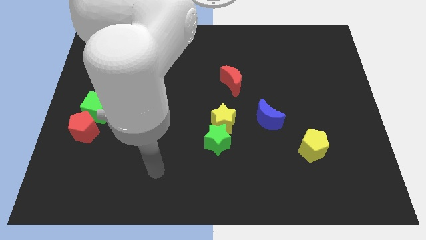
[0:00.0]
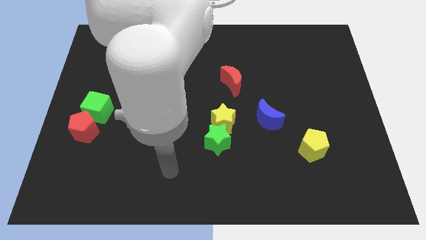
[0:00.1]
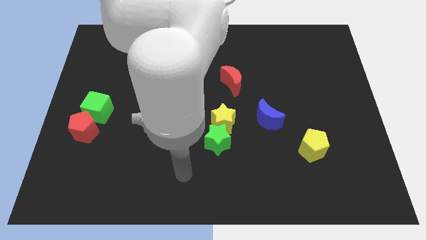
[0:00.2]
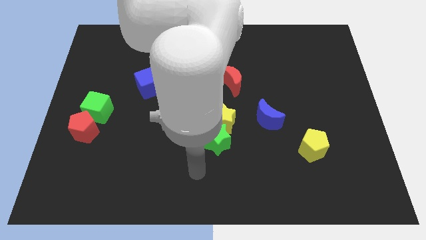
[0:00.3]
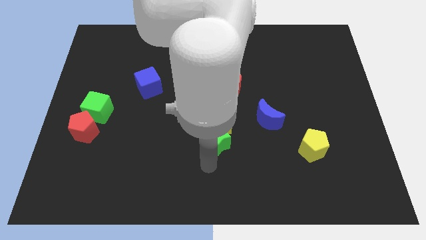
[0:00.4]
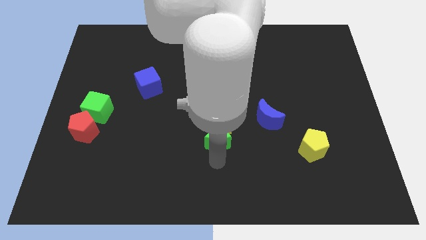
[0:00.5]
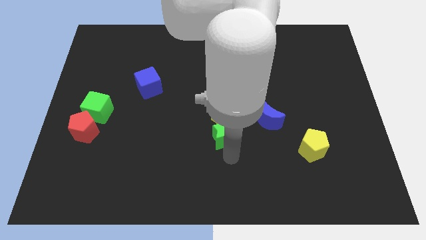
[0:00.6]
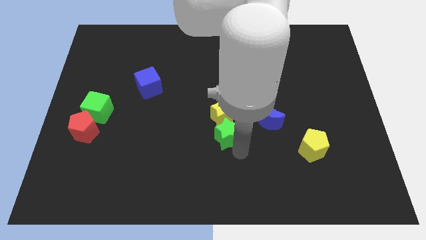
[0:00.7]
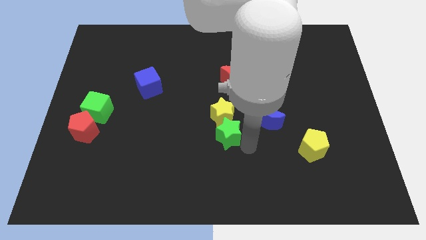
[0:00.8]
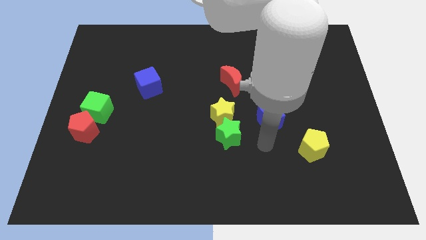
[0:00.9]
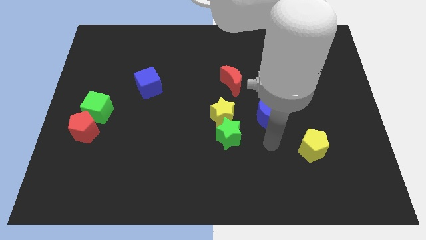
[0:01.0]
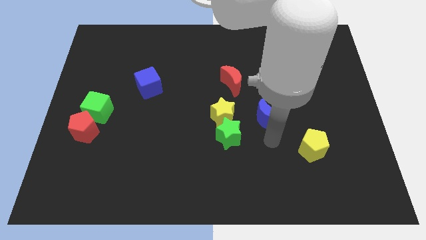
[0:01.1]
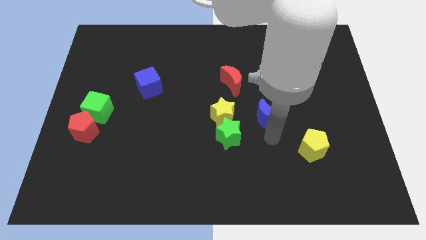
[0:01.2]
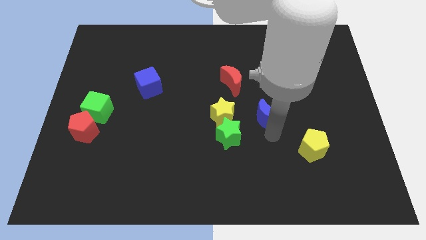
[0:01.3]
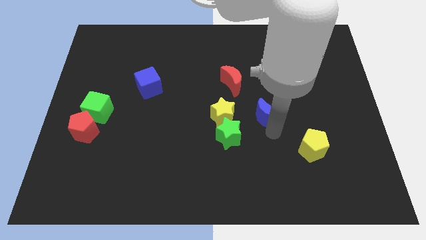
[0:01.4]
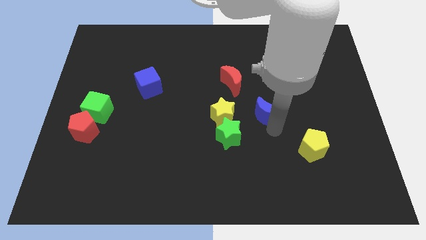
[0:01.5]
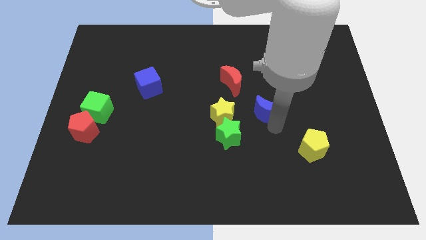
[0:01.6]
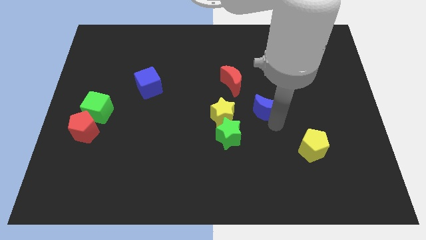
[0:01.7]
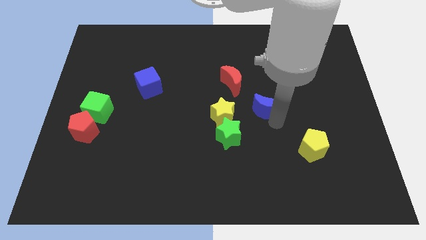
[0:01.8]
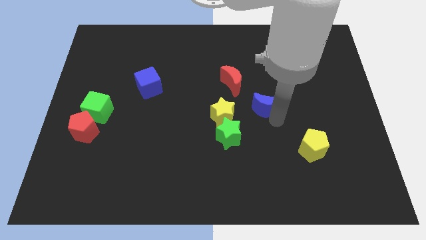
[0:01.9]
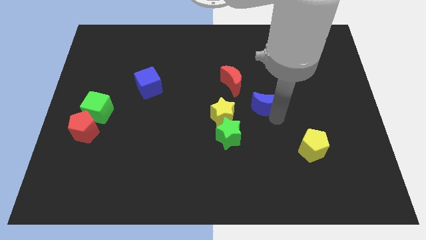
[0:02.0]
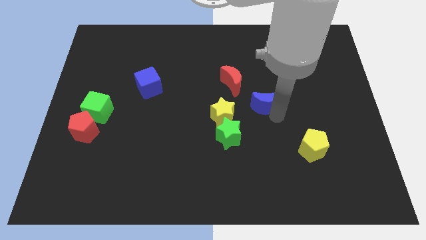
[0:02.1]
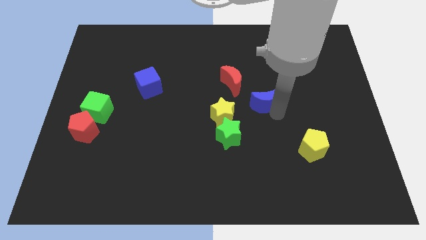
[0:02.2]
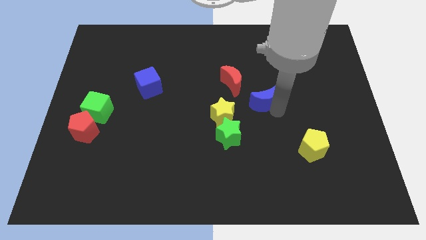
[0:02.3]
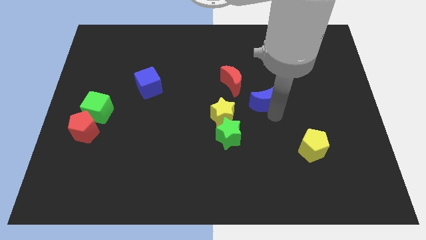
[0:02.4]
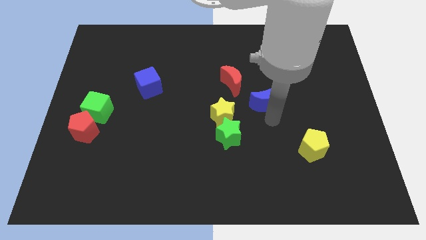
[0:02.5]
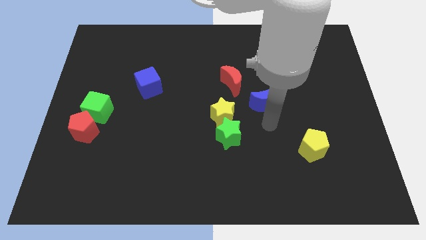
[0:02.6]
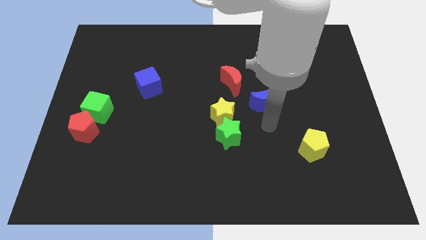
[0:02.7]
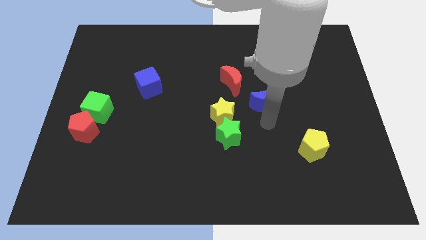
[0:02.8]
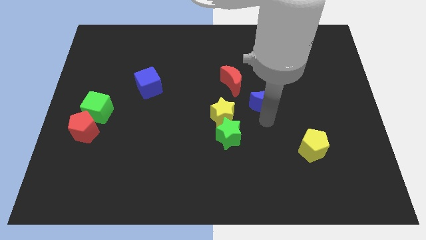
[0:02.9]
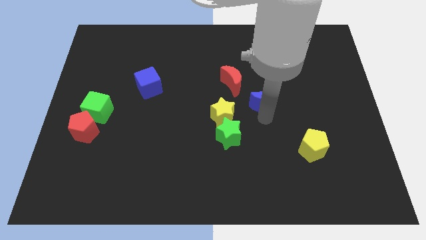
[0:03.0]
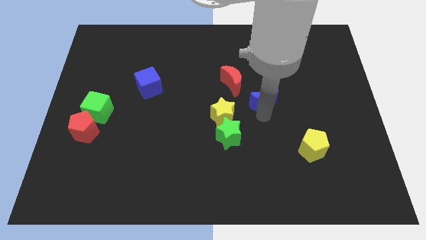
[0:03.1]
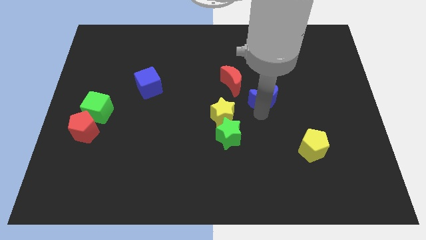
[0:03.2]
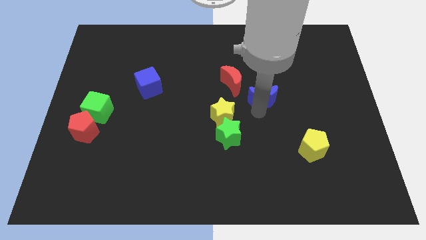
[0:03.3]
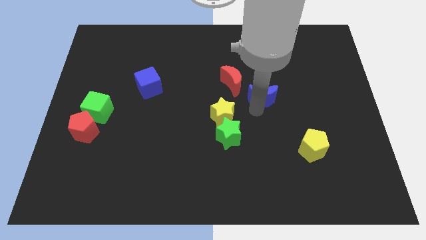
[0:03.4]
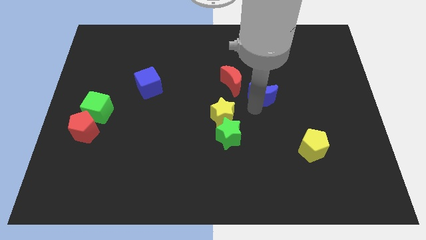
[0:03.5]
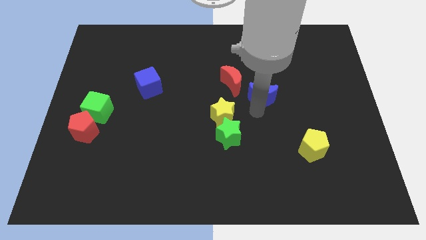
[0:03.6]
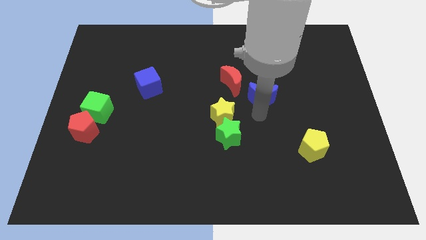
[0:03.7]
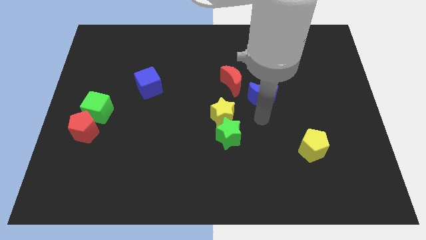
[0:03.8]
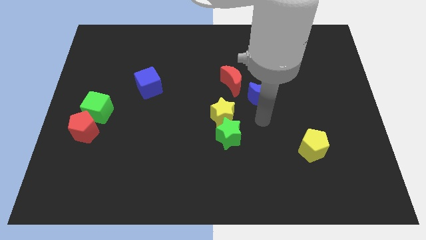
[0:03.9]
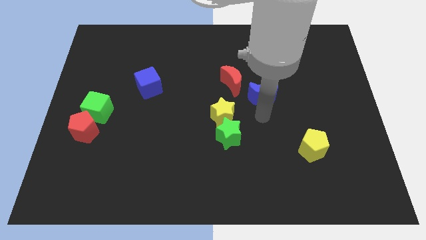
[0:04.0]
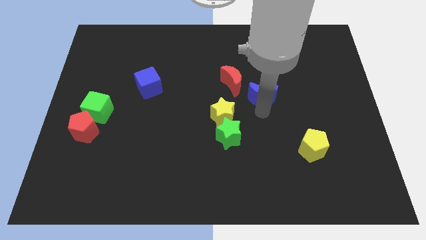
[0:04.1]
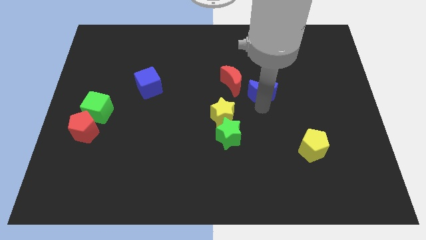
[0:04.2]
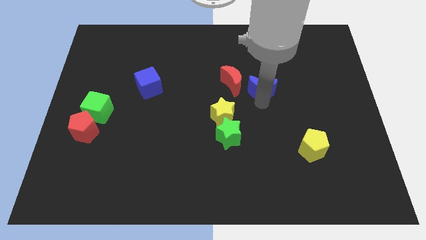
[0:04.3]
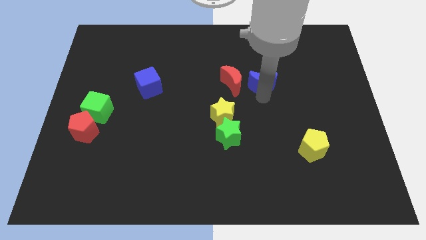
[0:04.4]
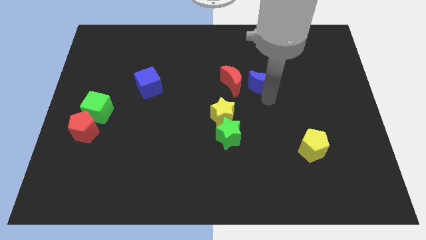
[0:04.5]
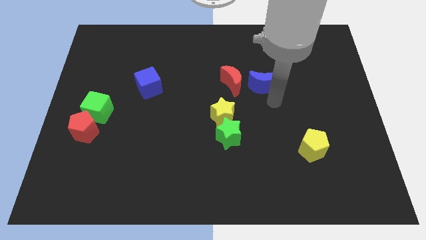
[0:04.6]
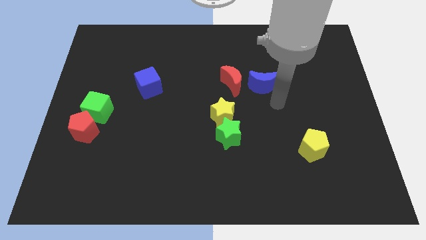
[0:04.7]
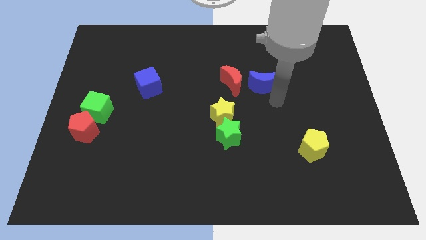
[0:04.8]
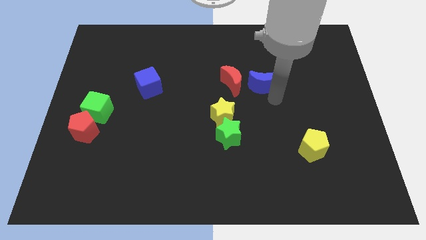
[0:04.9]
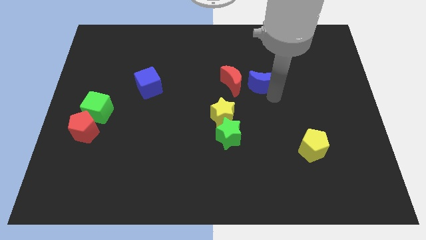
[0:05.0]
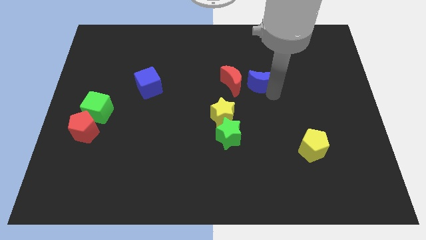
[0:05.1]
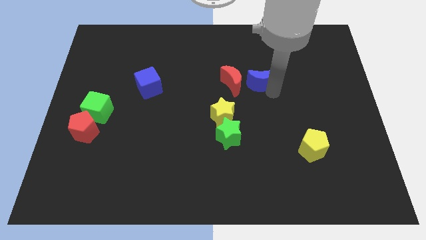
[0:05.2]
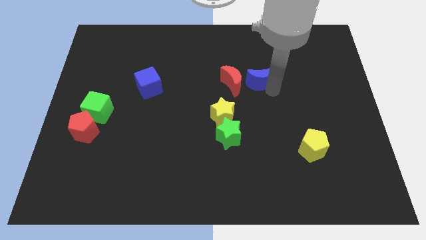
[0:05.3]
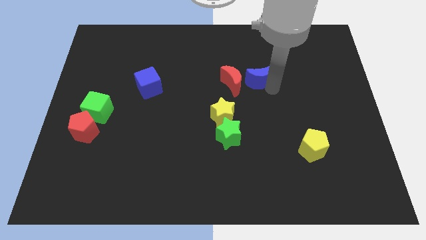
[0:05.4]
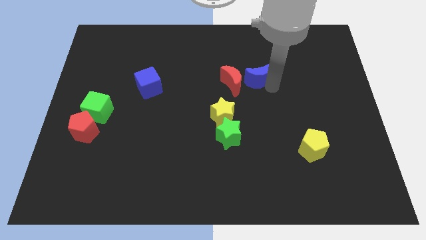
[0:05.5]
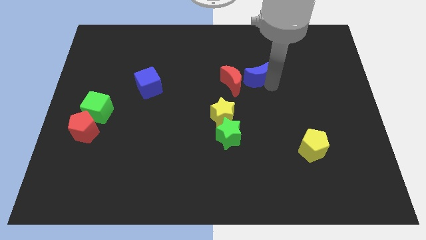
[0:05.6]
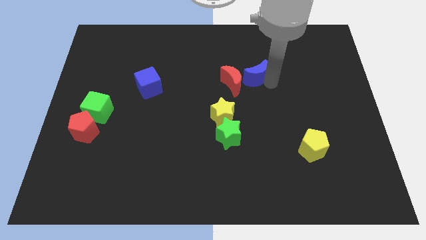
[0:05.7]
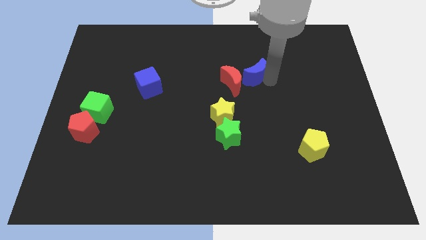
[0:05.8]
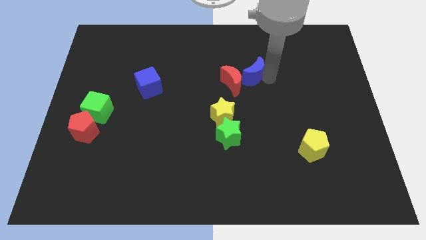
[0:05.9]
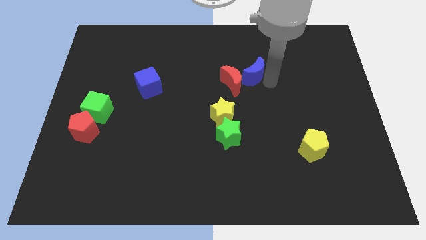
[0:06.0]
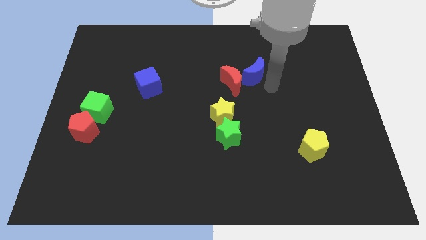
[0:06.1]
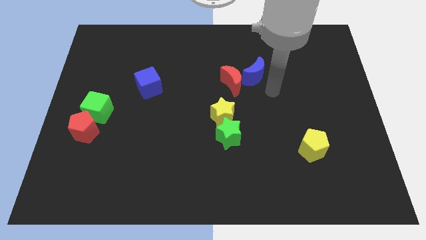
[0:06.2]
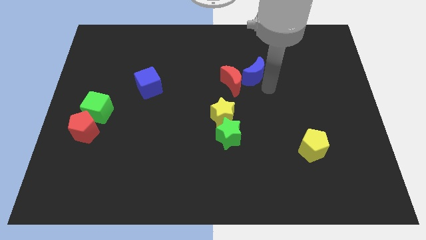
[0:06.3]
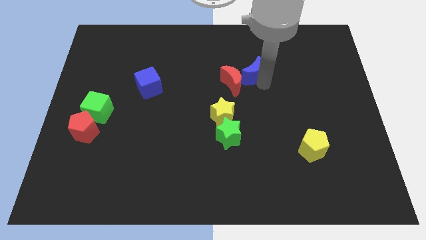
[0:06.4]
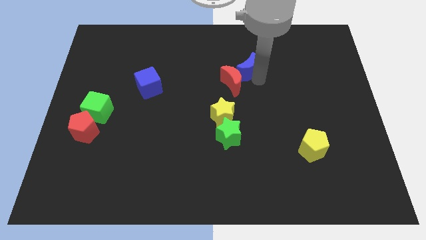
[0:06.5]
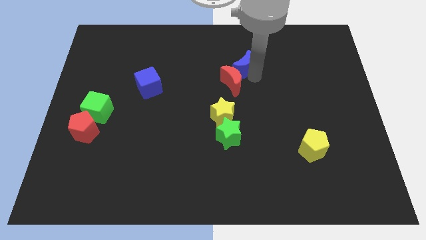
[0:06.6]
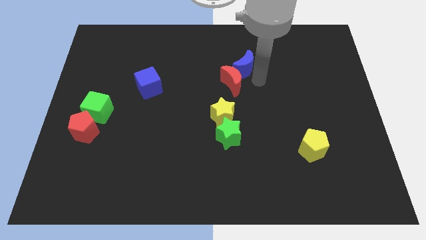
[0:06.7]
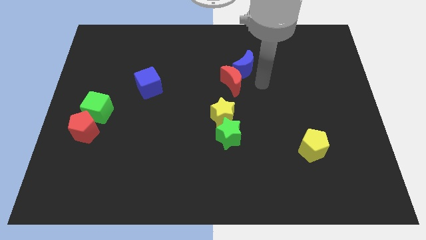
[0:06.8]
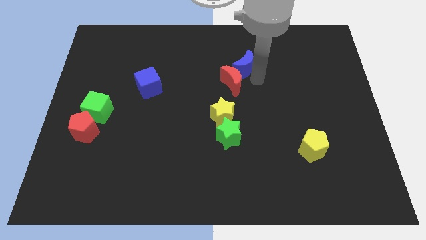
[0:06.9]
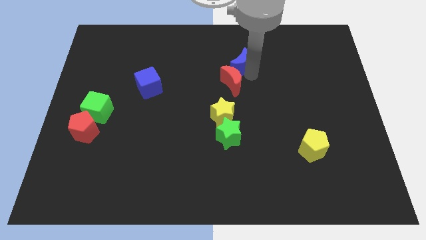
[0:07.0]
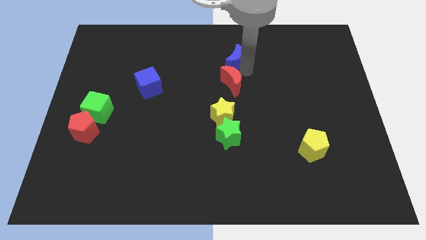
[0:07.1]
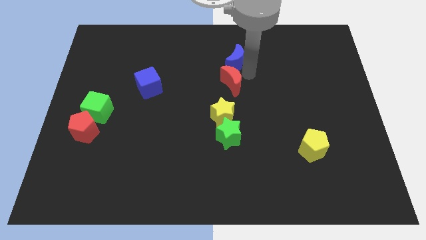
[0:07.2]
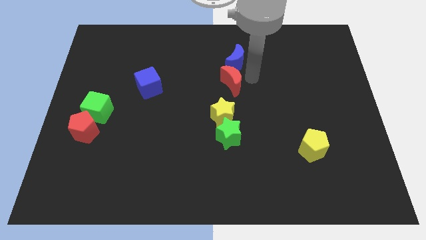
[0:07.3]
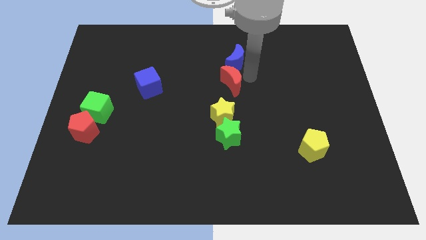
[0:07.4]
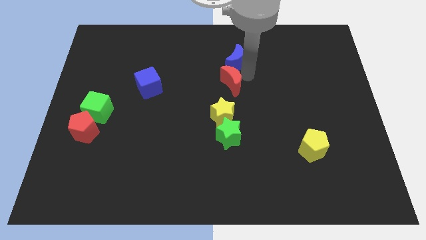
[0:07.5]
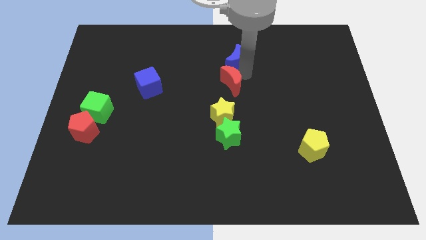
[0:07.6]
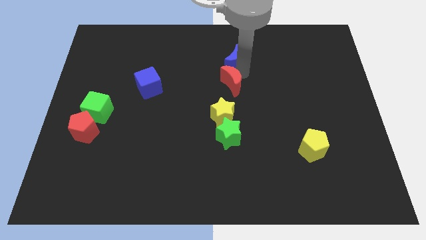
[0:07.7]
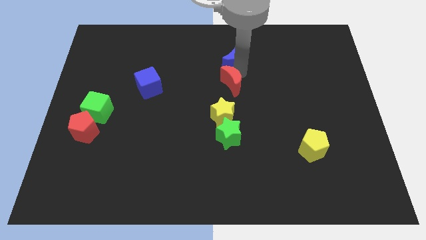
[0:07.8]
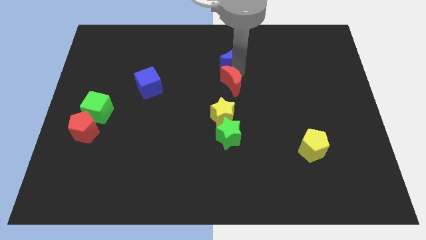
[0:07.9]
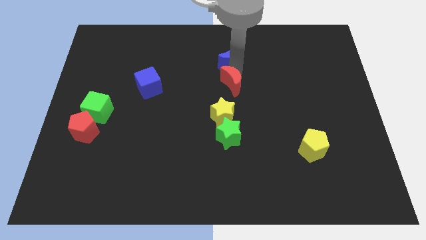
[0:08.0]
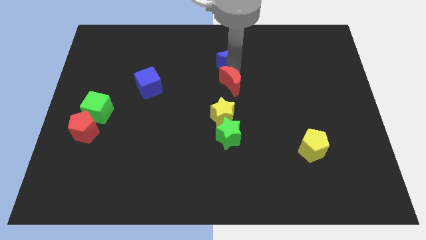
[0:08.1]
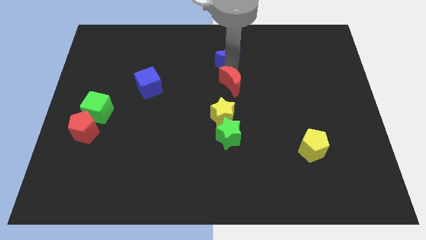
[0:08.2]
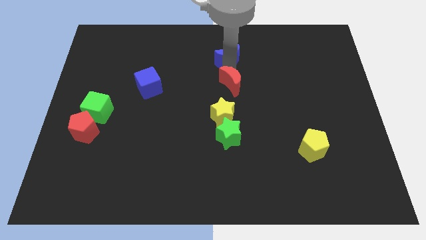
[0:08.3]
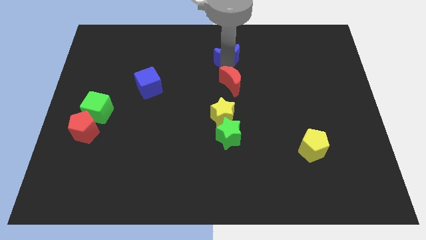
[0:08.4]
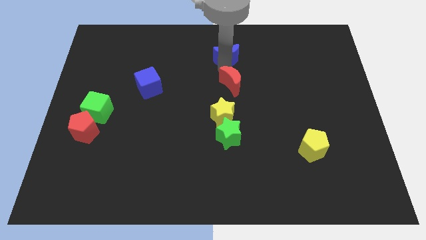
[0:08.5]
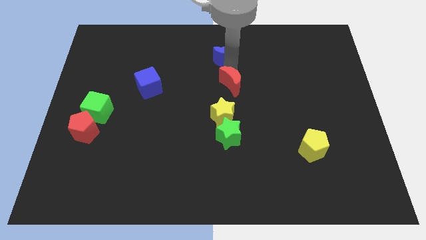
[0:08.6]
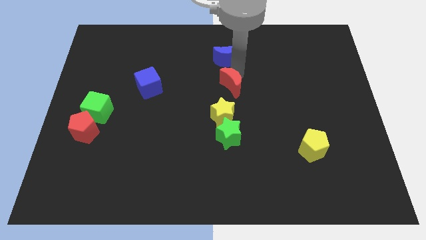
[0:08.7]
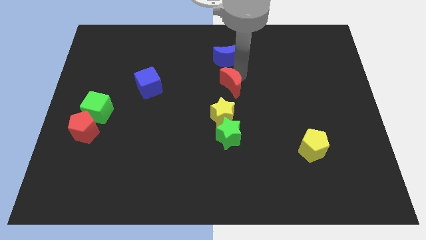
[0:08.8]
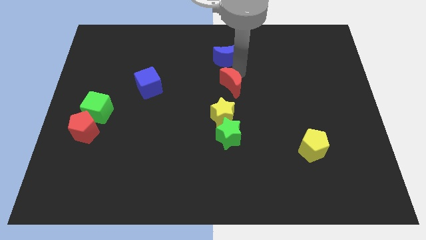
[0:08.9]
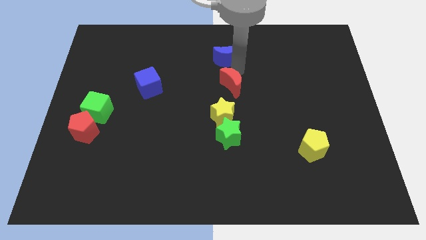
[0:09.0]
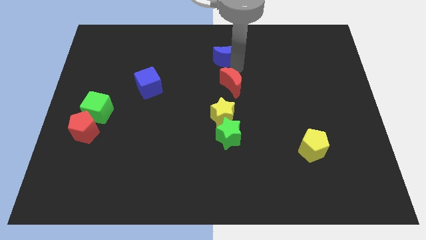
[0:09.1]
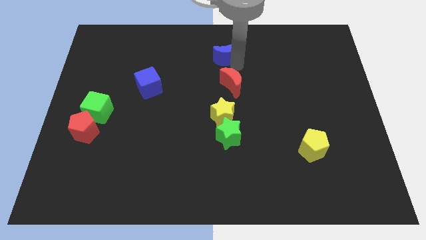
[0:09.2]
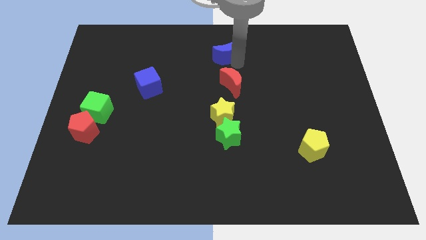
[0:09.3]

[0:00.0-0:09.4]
slide the blue moon to the top side
